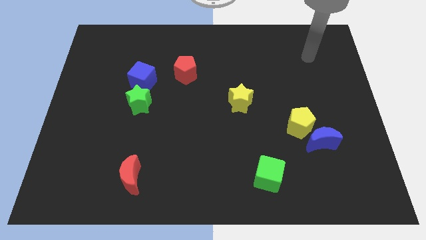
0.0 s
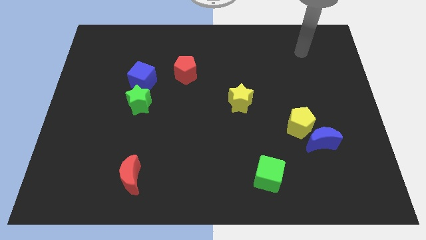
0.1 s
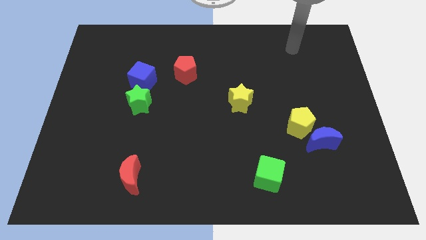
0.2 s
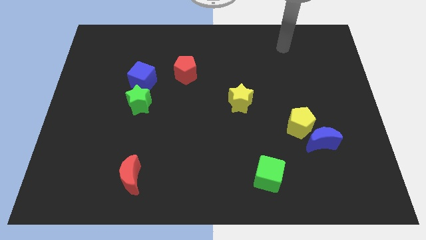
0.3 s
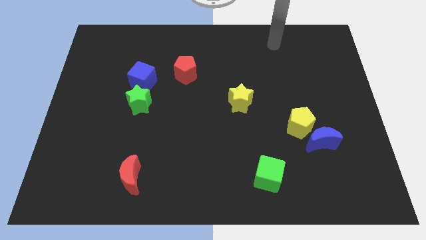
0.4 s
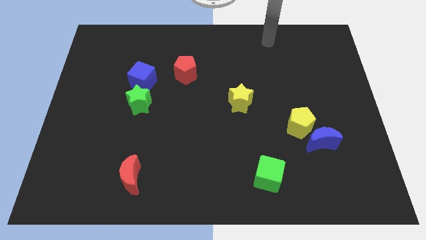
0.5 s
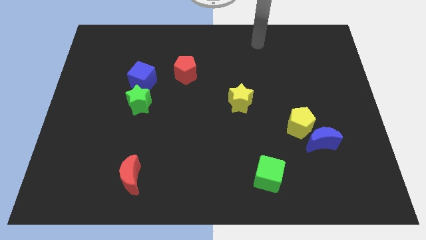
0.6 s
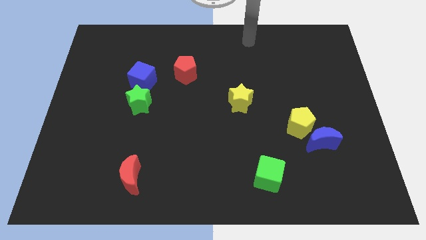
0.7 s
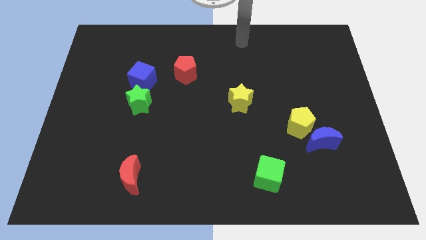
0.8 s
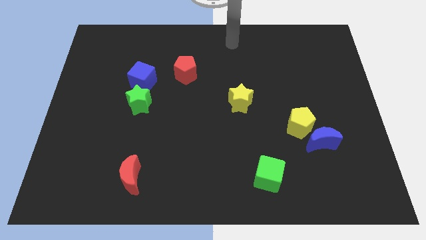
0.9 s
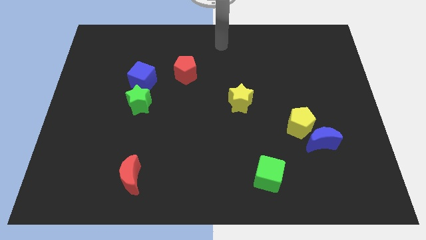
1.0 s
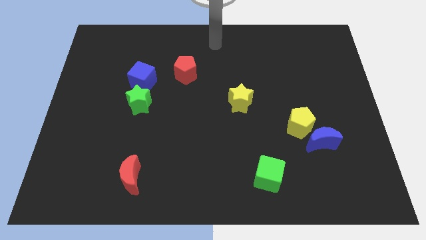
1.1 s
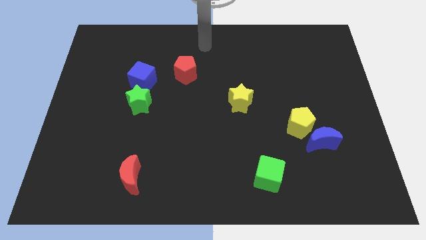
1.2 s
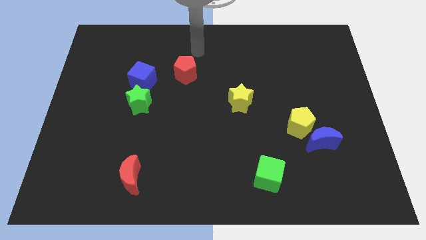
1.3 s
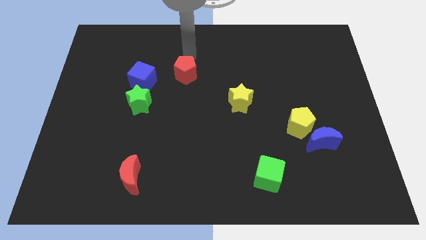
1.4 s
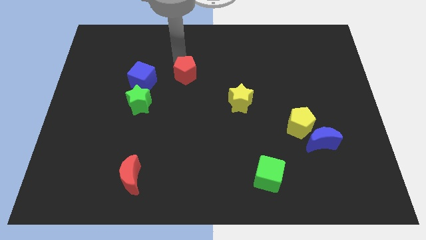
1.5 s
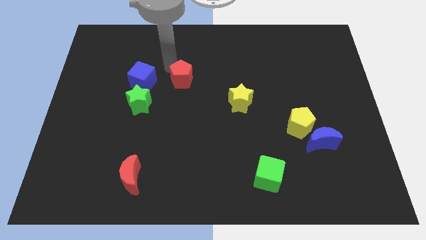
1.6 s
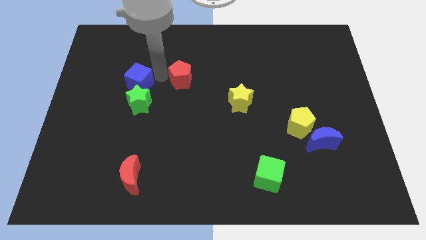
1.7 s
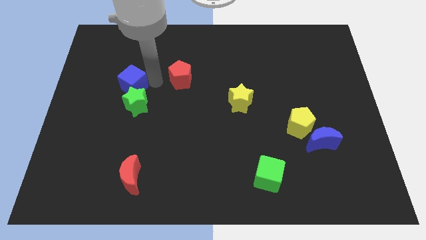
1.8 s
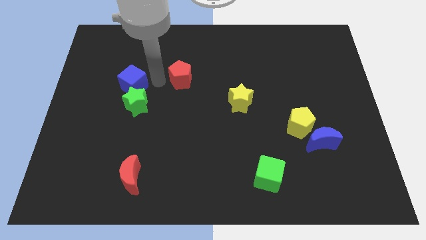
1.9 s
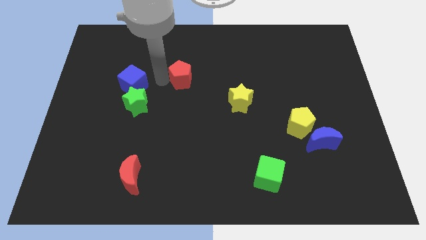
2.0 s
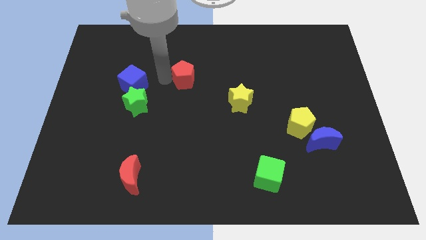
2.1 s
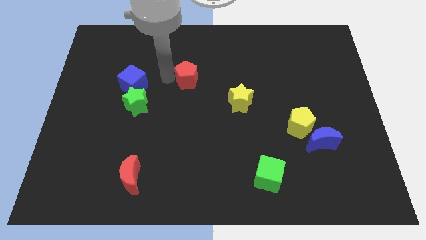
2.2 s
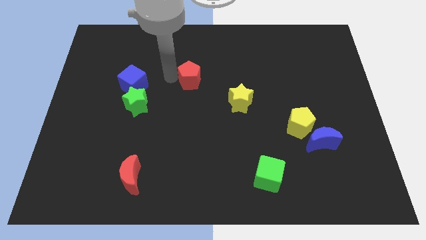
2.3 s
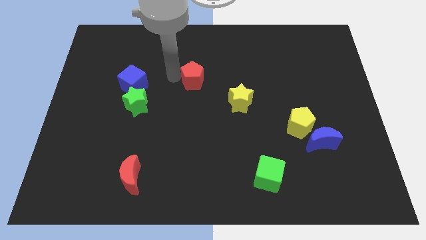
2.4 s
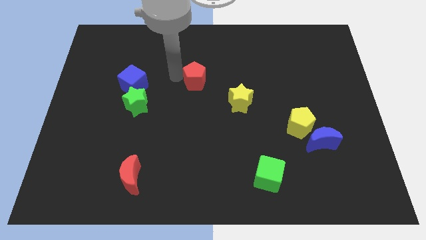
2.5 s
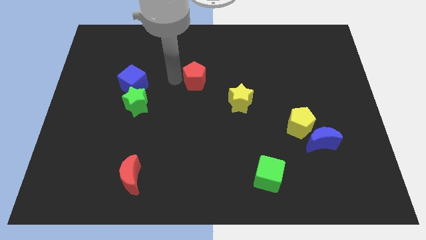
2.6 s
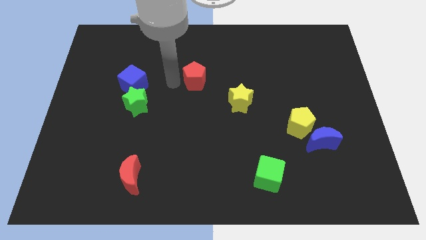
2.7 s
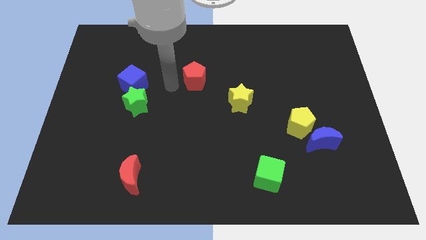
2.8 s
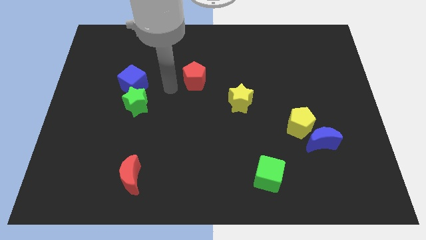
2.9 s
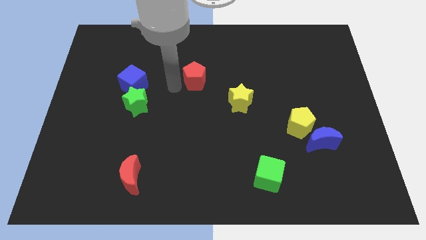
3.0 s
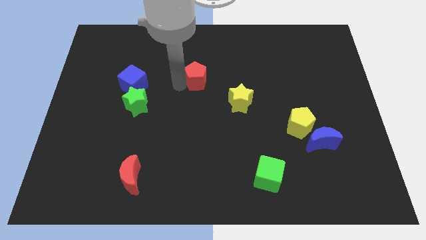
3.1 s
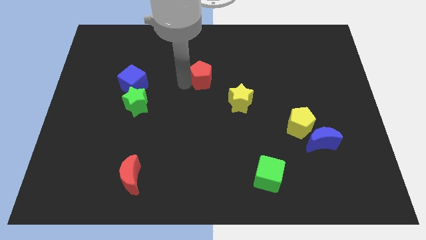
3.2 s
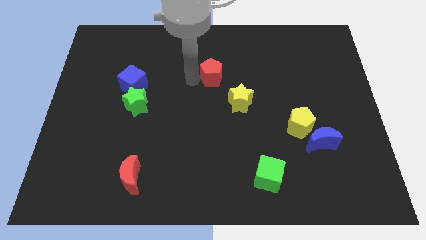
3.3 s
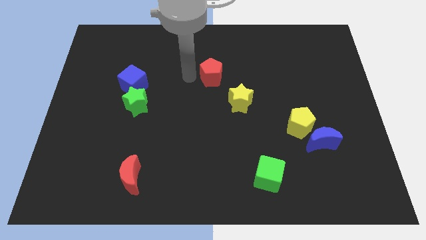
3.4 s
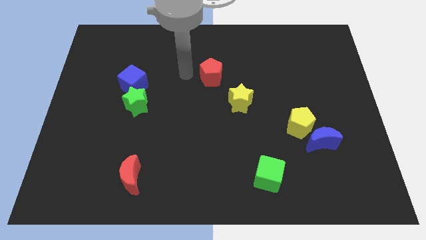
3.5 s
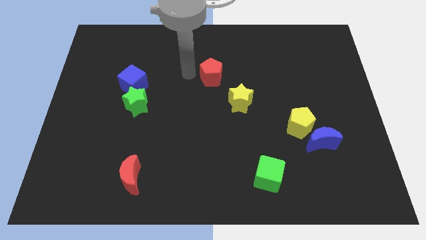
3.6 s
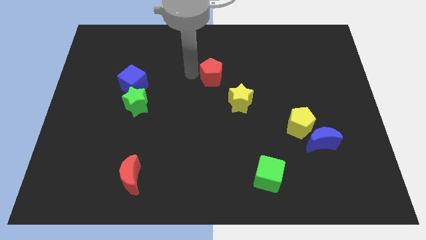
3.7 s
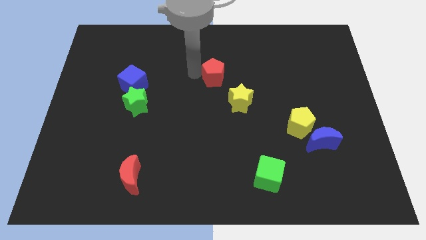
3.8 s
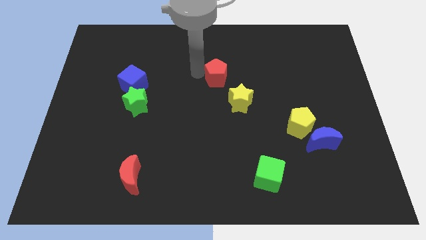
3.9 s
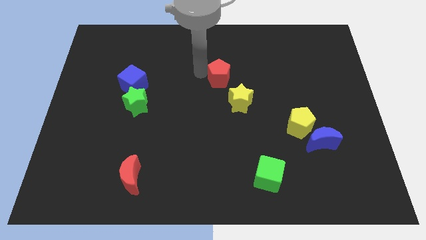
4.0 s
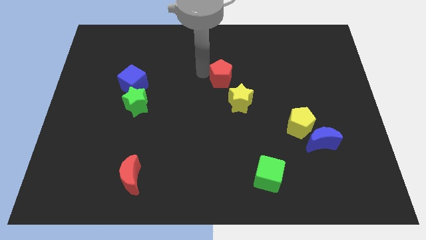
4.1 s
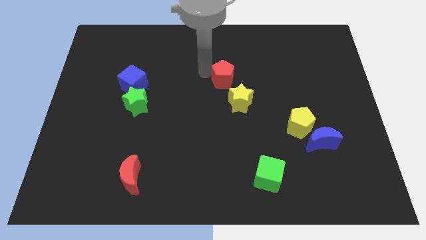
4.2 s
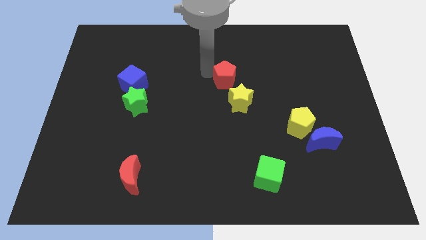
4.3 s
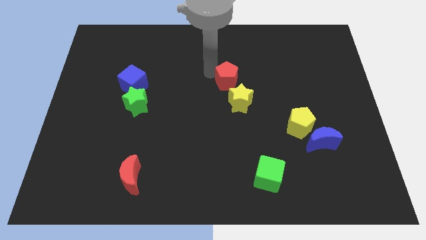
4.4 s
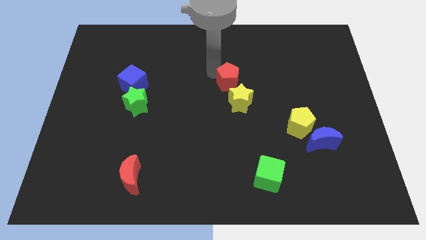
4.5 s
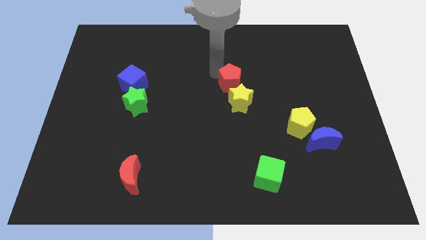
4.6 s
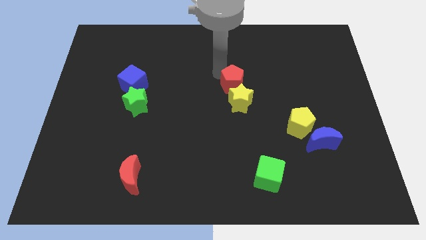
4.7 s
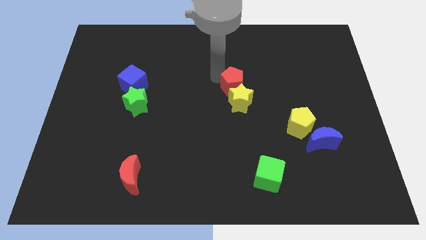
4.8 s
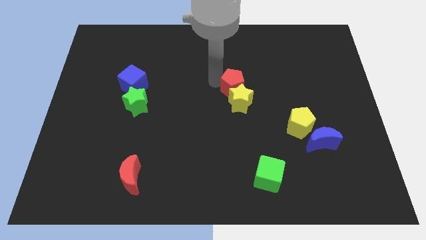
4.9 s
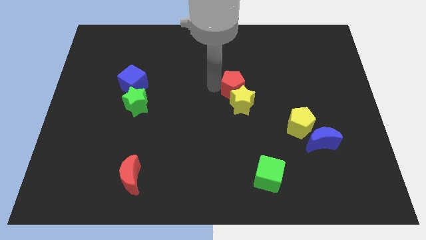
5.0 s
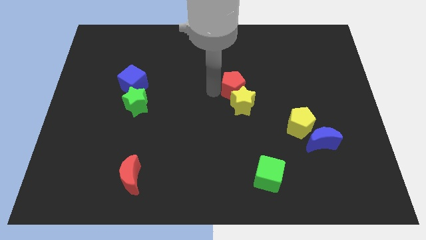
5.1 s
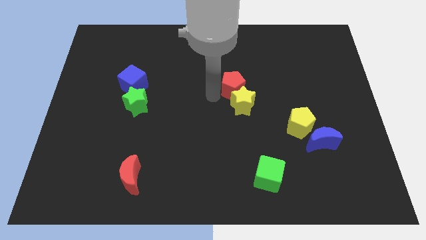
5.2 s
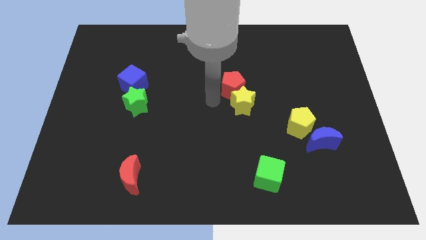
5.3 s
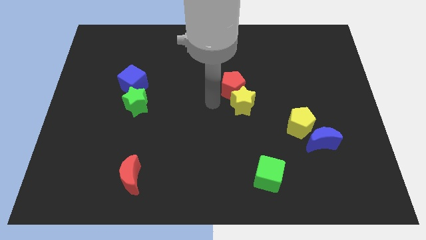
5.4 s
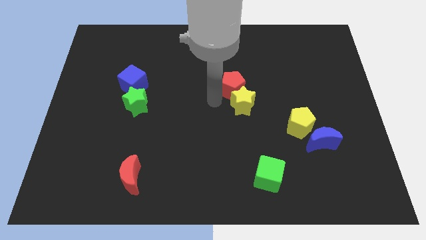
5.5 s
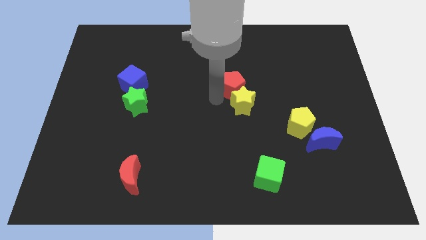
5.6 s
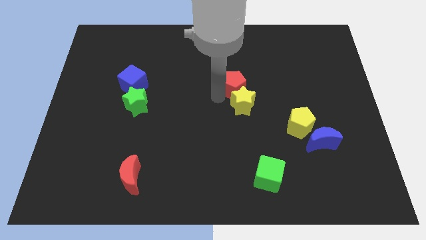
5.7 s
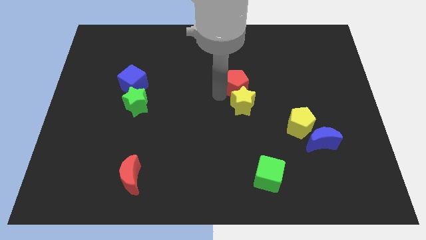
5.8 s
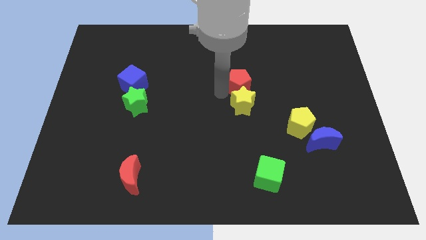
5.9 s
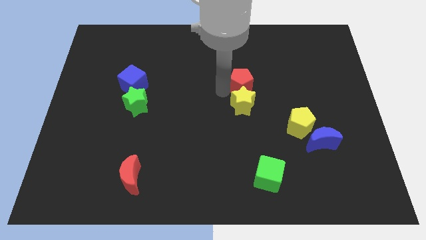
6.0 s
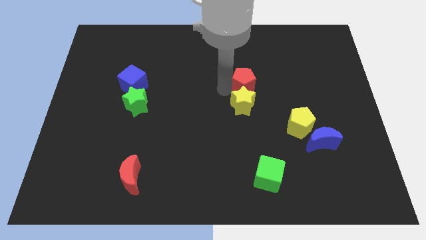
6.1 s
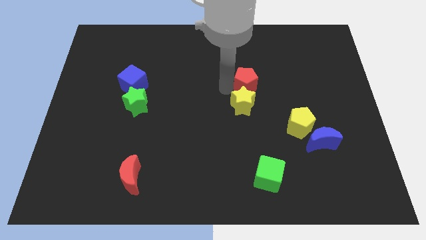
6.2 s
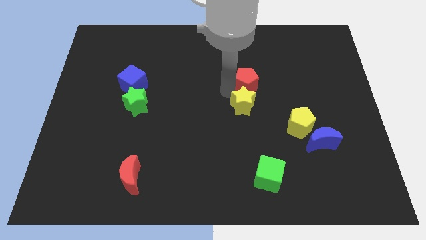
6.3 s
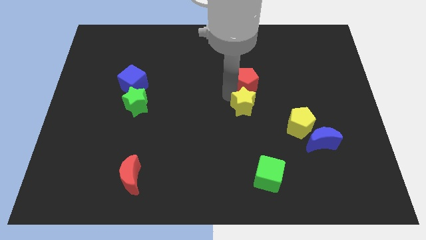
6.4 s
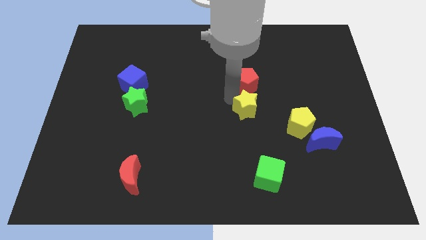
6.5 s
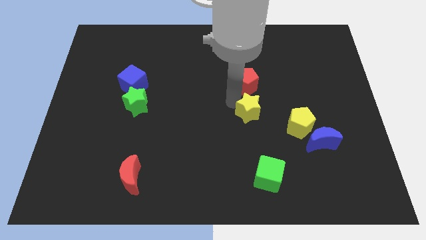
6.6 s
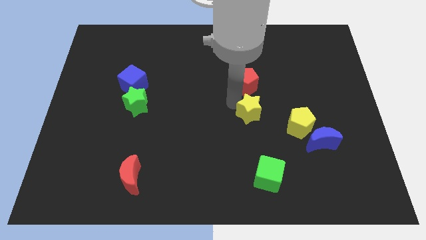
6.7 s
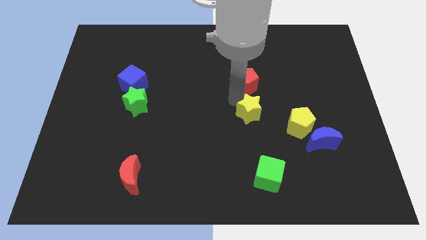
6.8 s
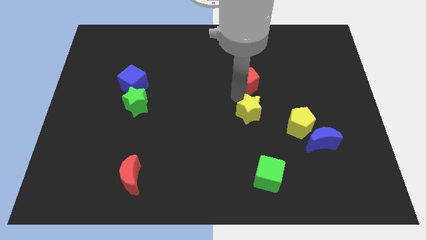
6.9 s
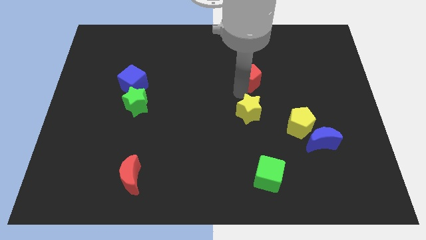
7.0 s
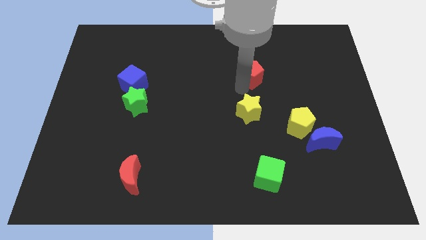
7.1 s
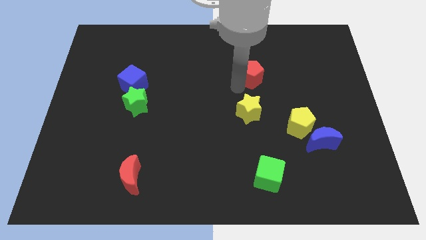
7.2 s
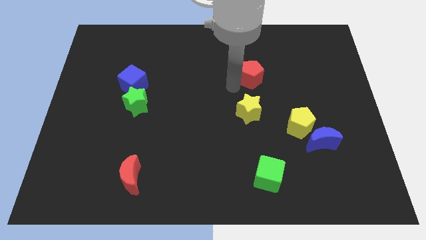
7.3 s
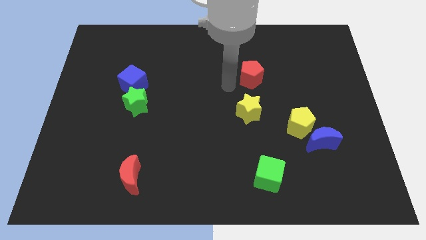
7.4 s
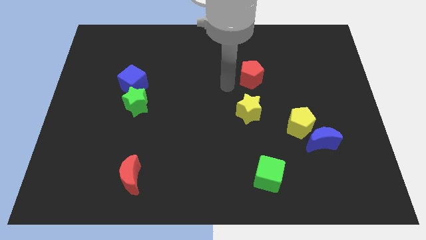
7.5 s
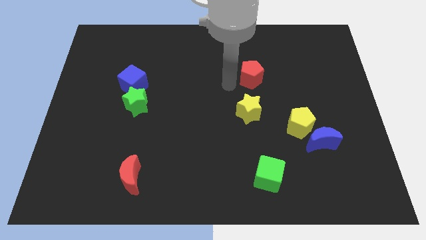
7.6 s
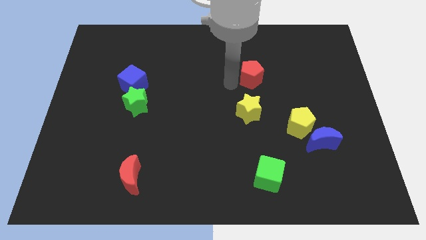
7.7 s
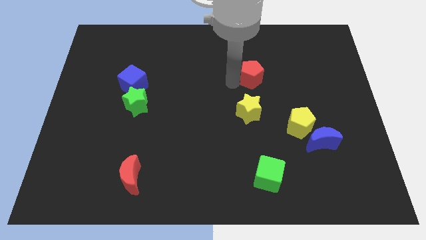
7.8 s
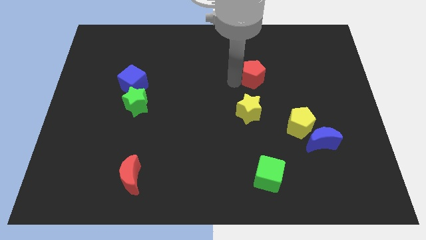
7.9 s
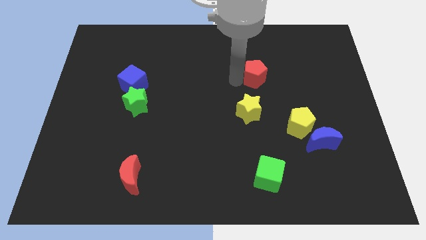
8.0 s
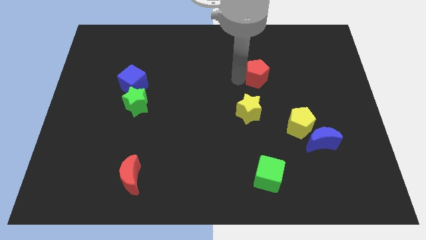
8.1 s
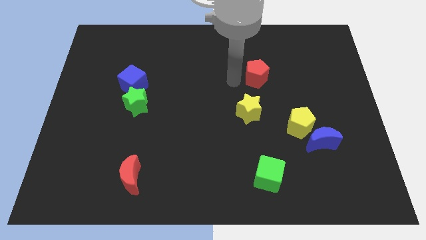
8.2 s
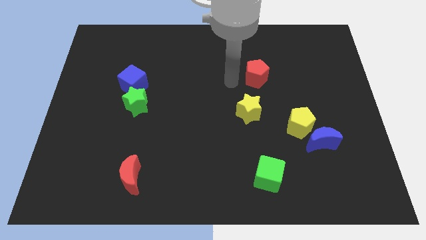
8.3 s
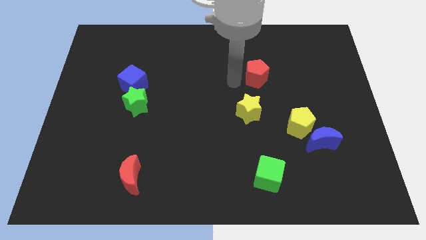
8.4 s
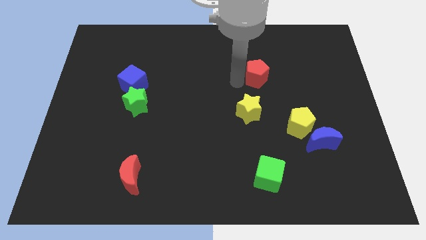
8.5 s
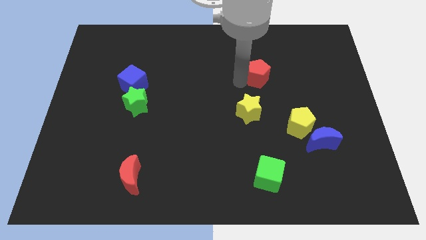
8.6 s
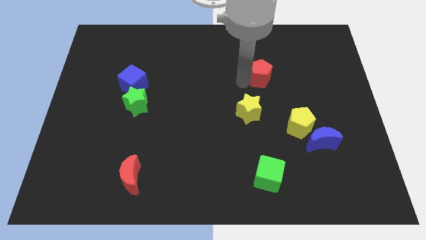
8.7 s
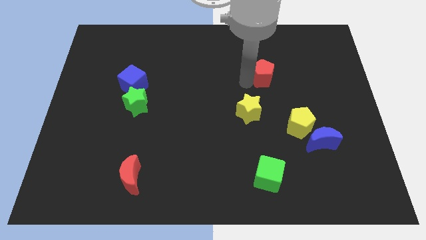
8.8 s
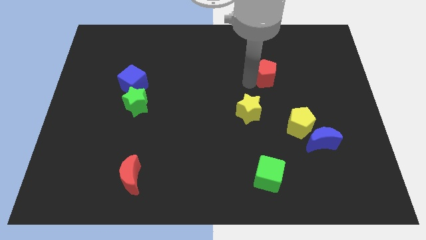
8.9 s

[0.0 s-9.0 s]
move the red pentagon to the right
